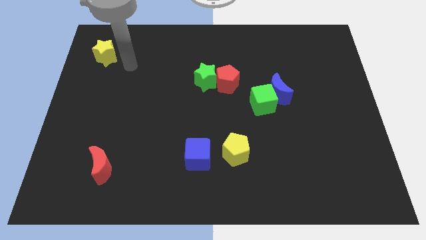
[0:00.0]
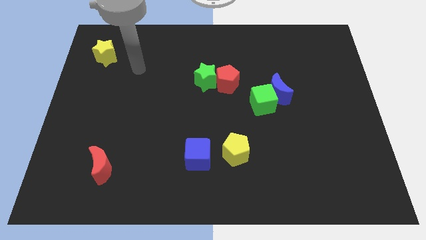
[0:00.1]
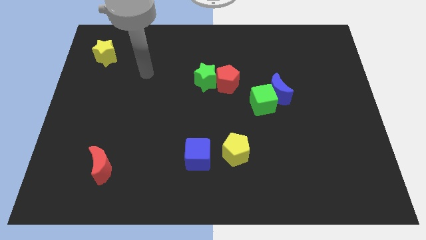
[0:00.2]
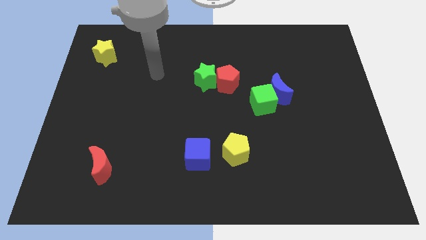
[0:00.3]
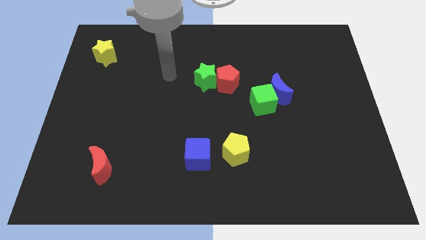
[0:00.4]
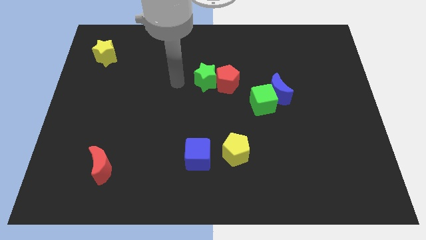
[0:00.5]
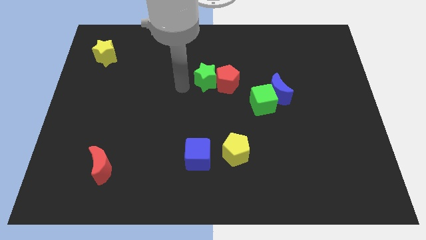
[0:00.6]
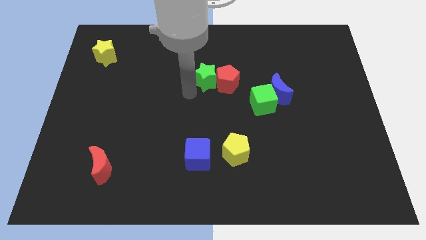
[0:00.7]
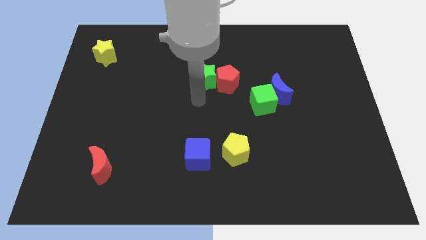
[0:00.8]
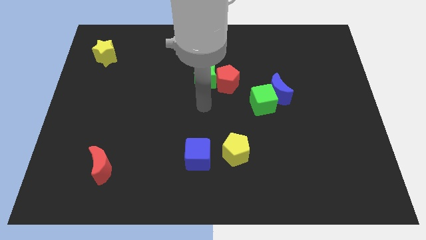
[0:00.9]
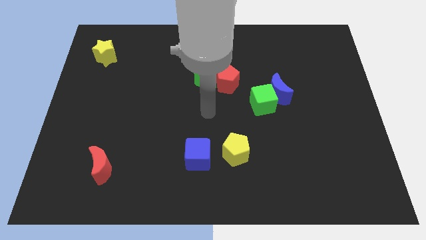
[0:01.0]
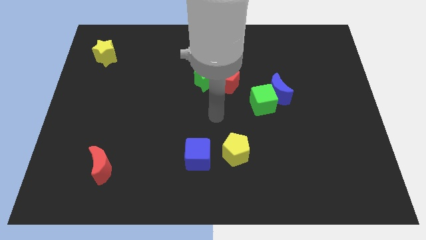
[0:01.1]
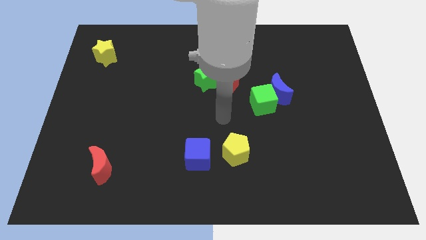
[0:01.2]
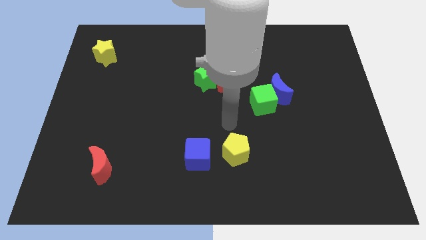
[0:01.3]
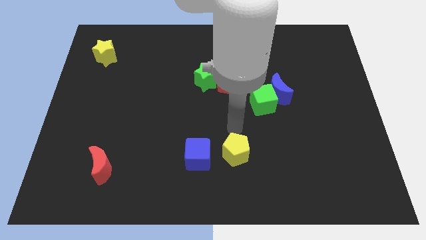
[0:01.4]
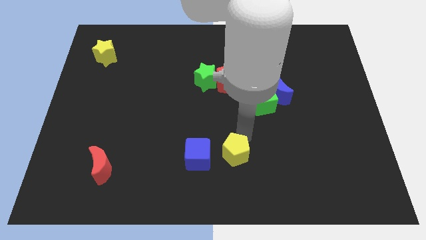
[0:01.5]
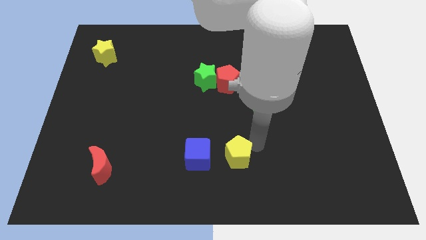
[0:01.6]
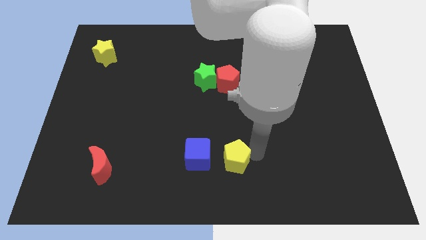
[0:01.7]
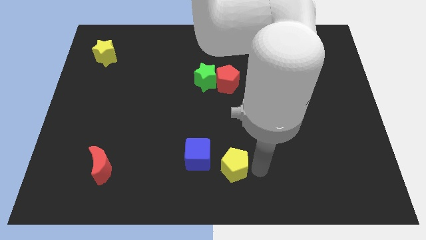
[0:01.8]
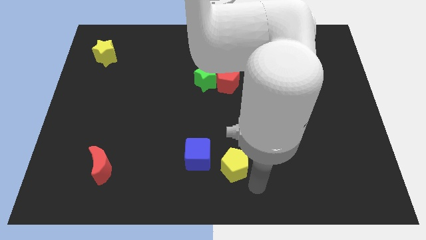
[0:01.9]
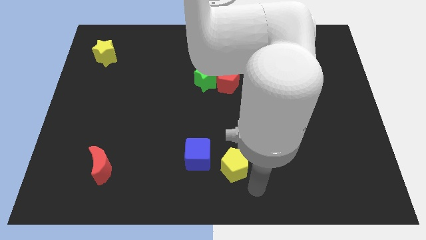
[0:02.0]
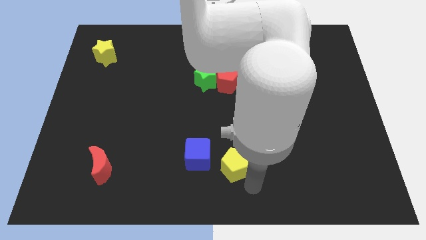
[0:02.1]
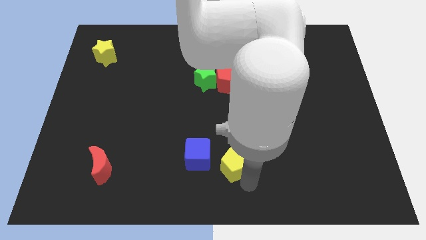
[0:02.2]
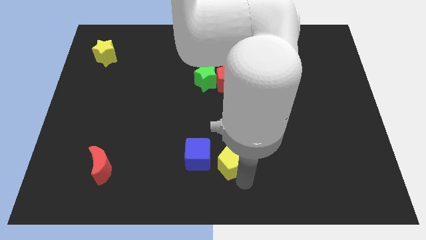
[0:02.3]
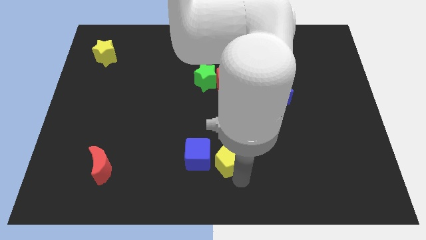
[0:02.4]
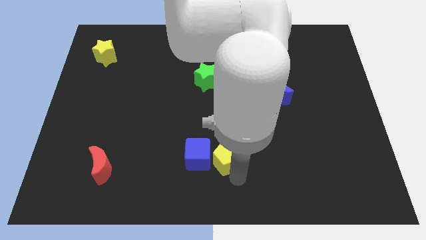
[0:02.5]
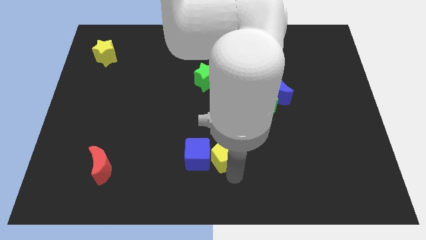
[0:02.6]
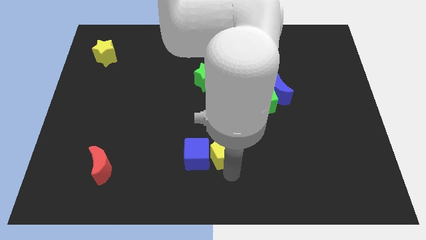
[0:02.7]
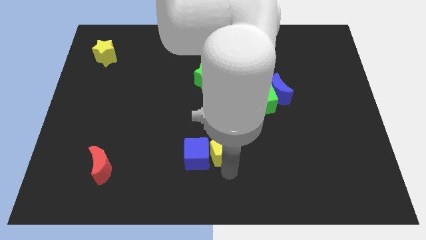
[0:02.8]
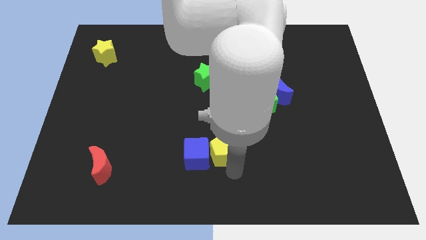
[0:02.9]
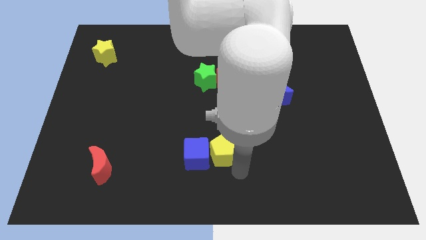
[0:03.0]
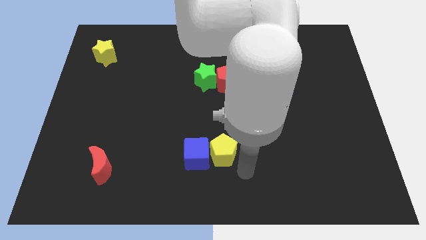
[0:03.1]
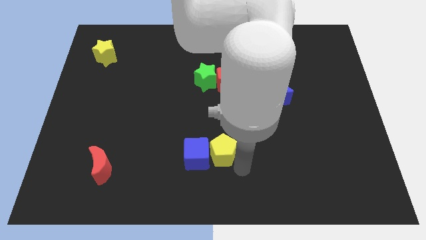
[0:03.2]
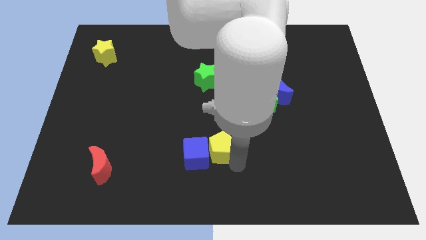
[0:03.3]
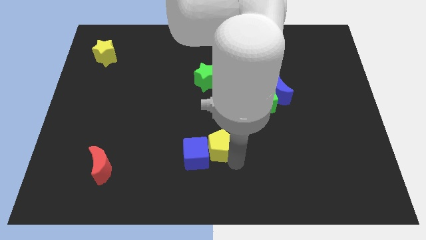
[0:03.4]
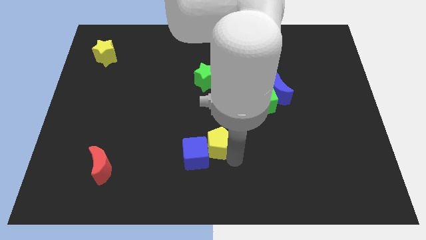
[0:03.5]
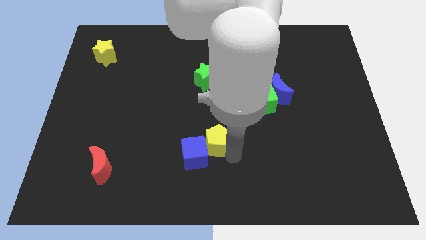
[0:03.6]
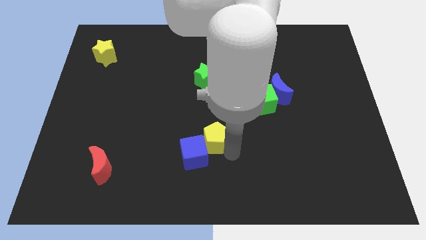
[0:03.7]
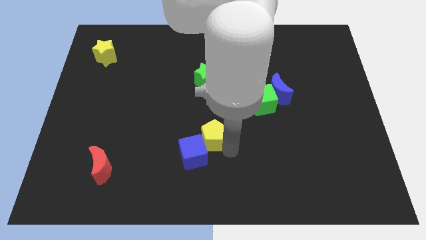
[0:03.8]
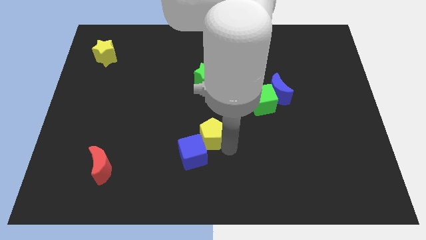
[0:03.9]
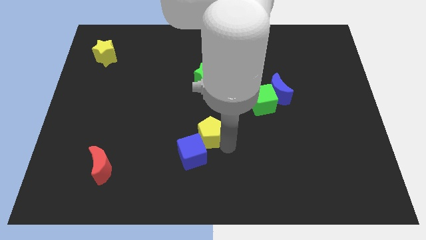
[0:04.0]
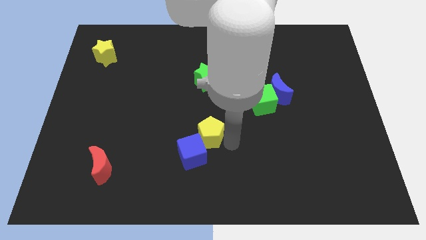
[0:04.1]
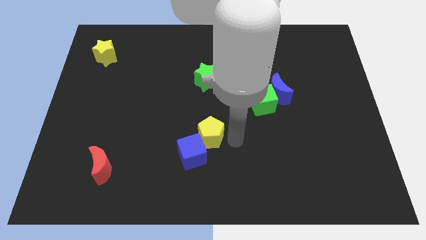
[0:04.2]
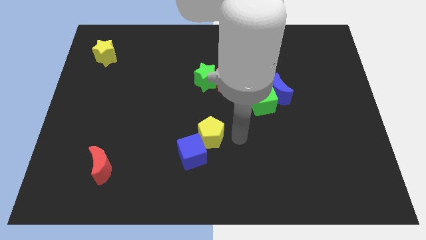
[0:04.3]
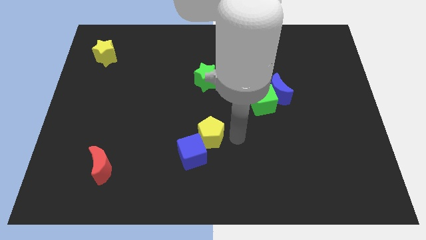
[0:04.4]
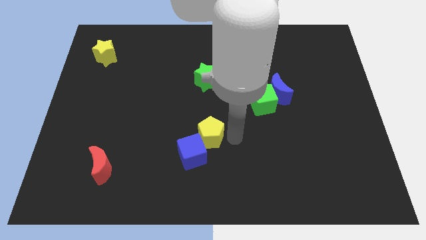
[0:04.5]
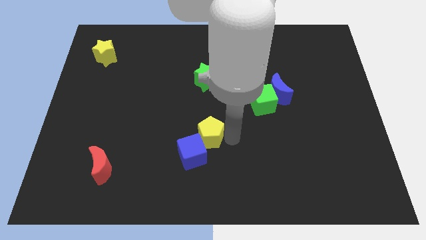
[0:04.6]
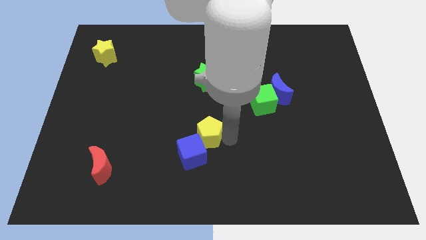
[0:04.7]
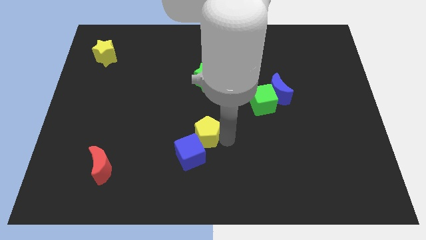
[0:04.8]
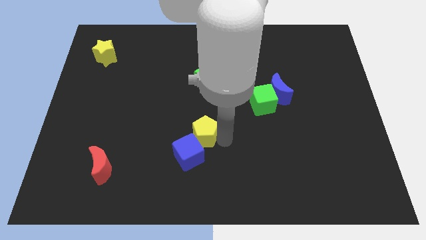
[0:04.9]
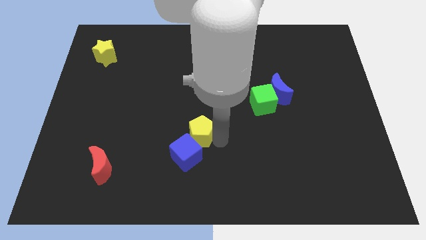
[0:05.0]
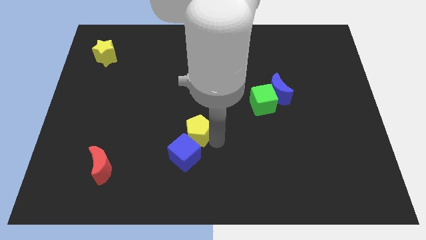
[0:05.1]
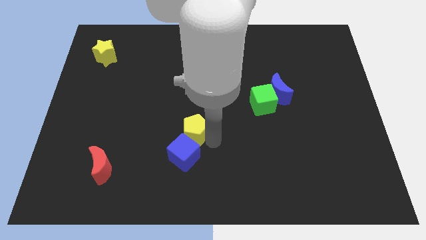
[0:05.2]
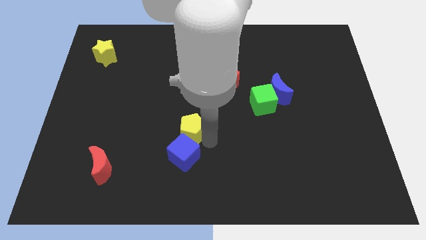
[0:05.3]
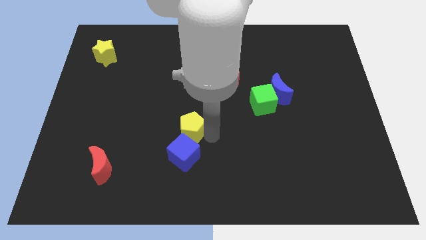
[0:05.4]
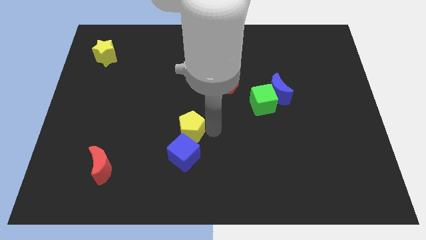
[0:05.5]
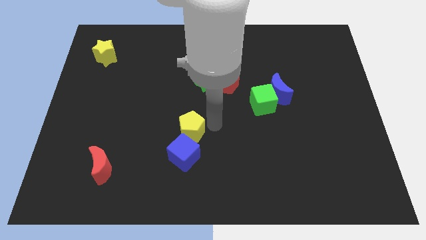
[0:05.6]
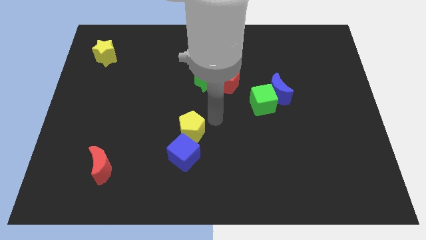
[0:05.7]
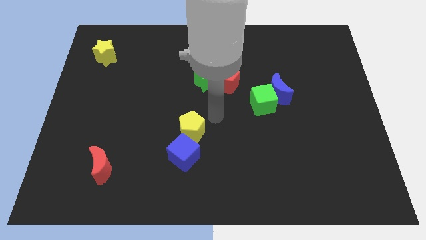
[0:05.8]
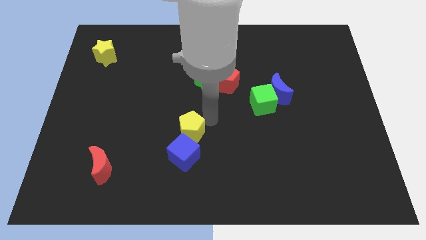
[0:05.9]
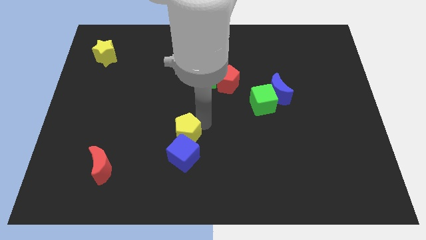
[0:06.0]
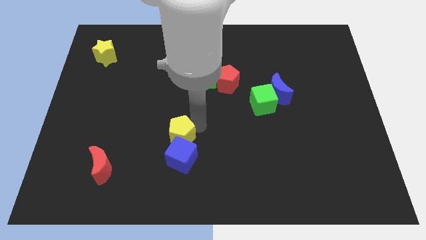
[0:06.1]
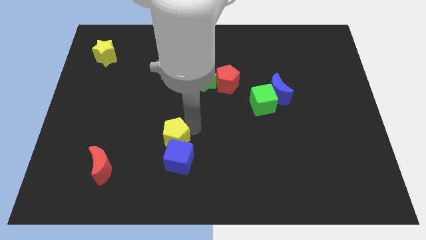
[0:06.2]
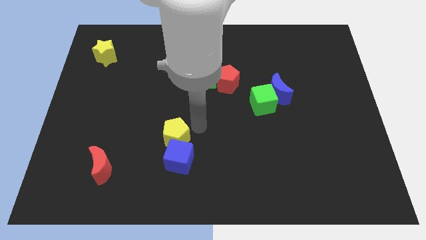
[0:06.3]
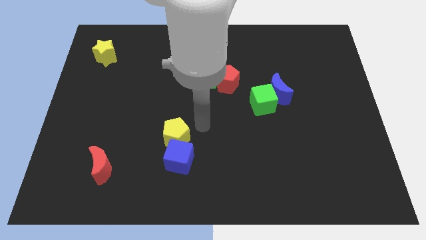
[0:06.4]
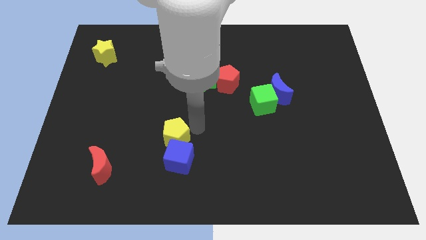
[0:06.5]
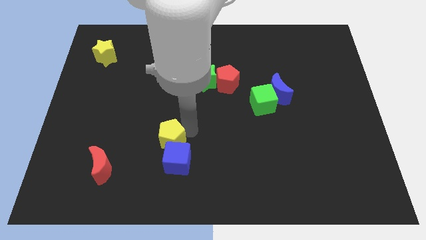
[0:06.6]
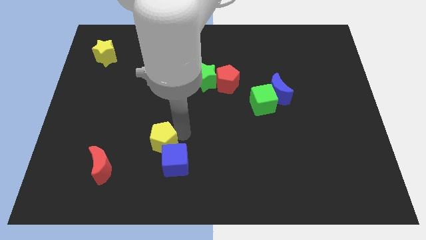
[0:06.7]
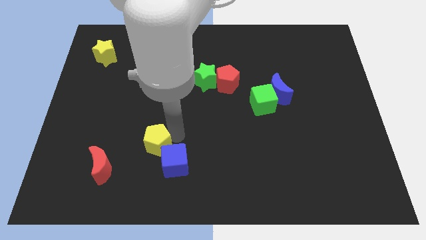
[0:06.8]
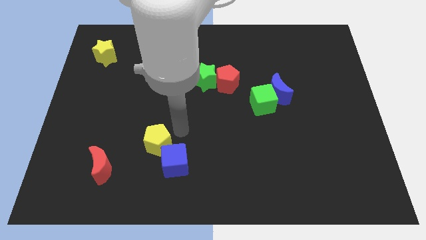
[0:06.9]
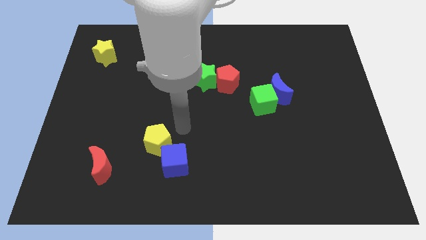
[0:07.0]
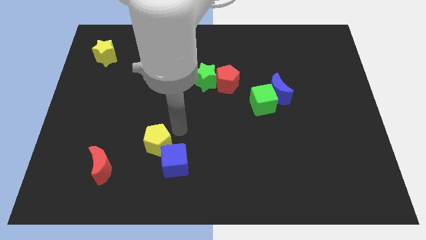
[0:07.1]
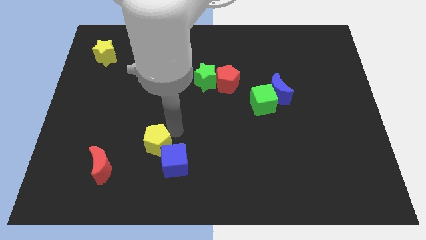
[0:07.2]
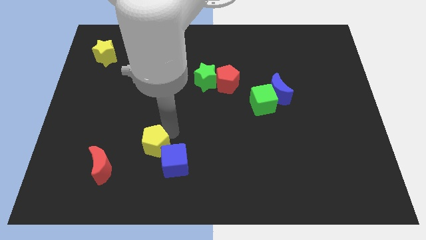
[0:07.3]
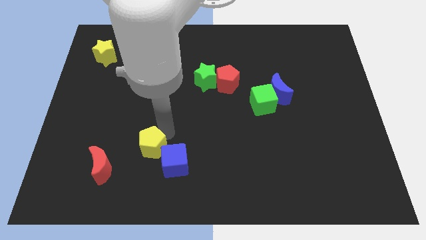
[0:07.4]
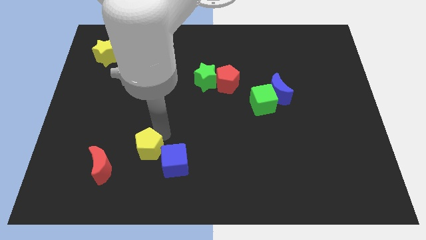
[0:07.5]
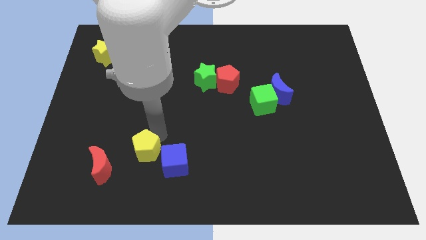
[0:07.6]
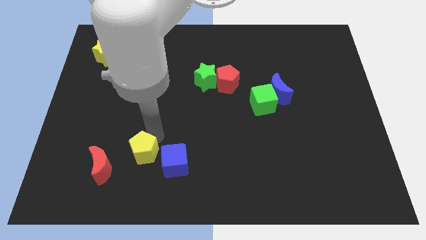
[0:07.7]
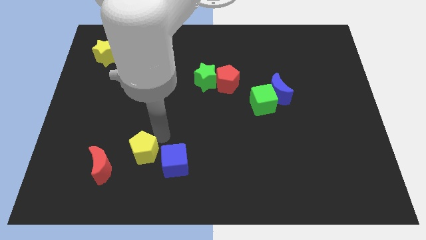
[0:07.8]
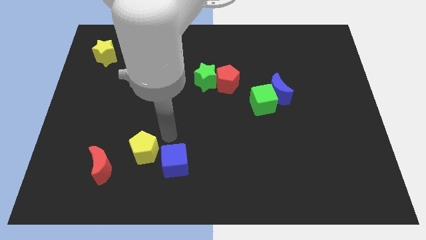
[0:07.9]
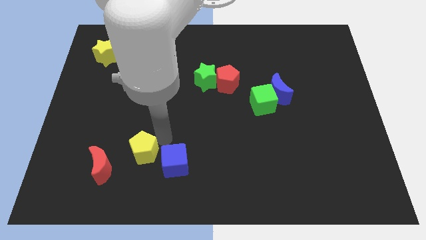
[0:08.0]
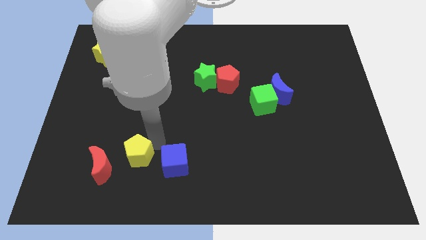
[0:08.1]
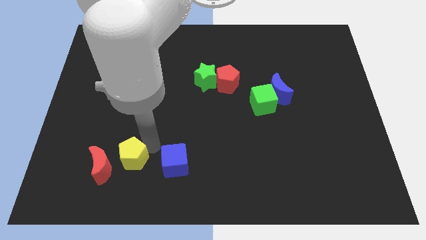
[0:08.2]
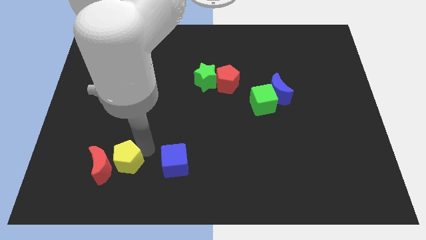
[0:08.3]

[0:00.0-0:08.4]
put the yellow pentagon towards the red moon
